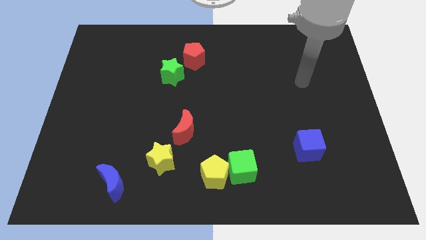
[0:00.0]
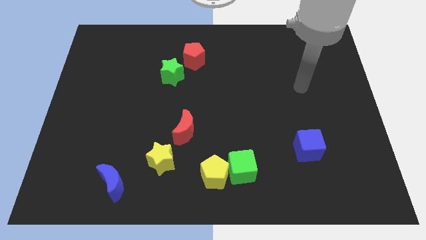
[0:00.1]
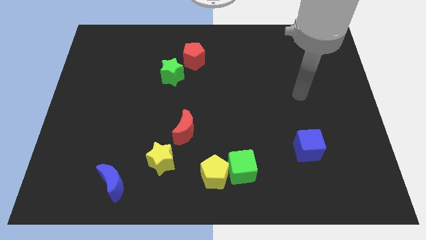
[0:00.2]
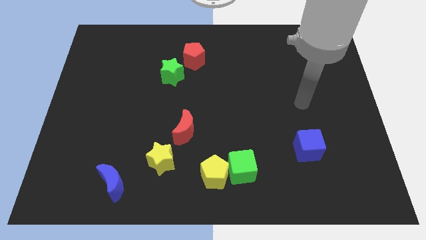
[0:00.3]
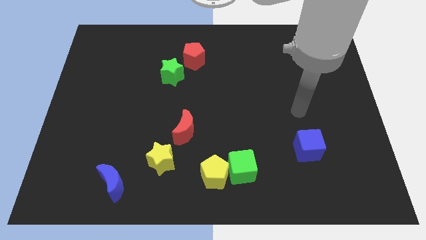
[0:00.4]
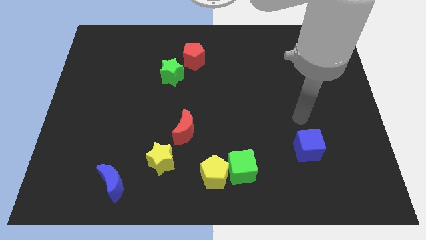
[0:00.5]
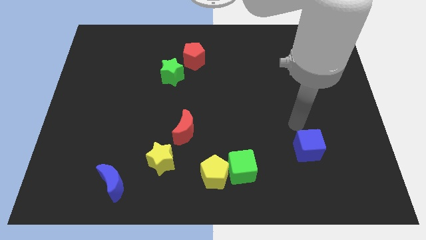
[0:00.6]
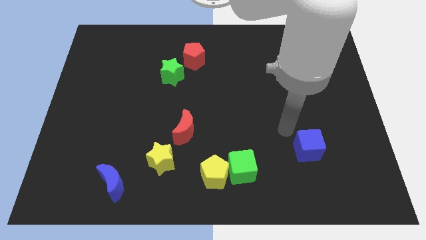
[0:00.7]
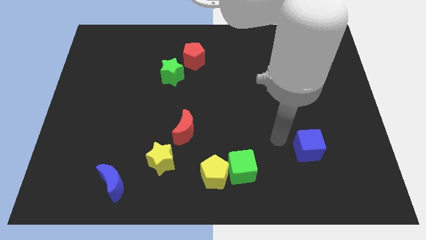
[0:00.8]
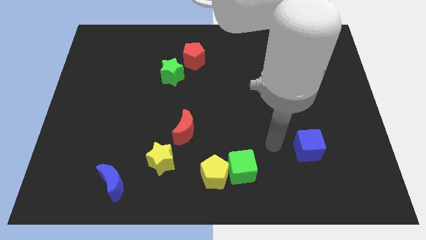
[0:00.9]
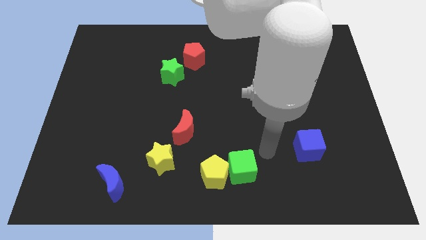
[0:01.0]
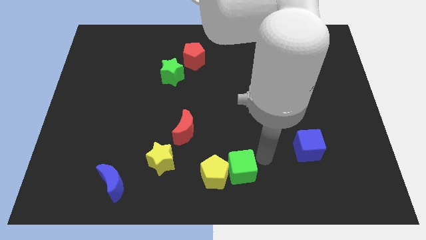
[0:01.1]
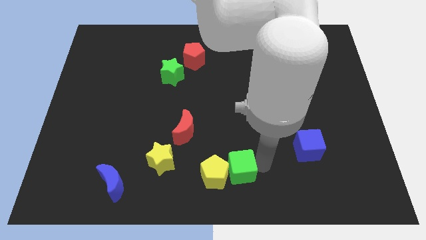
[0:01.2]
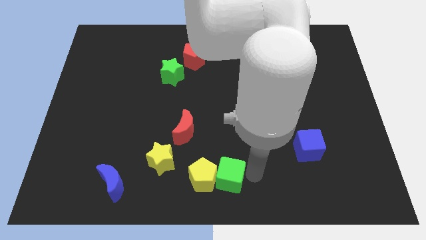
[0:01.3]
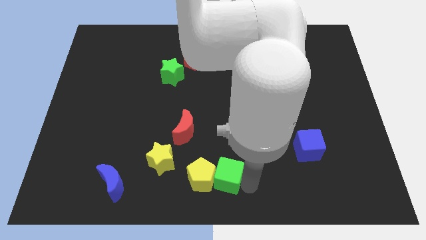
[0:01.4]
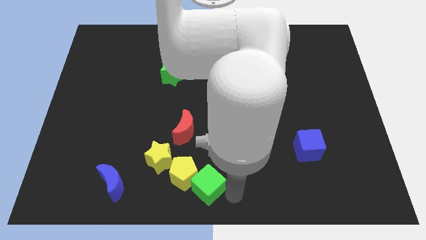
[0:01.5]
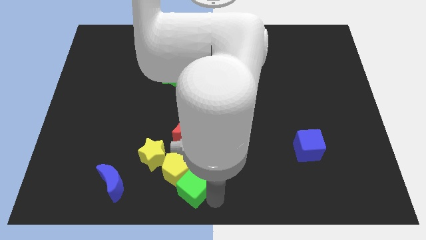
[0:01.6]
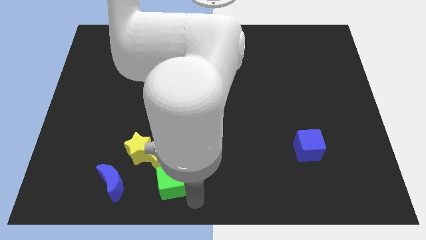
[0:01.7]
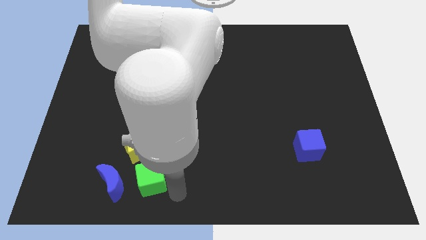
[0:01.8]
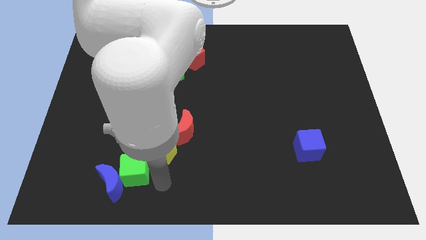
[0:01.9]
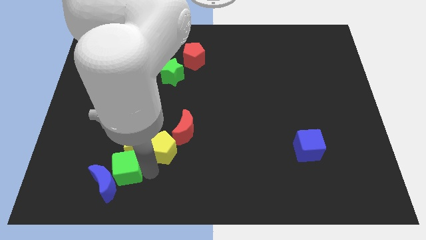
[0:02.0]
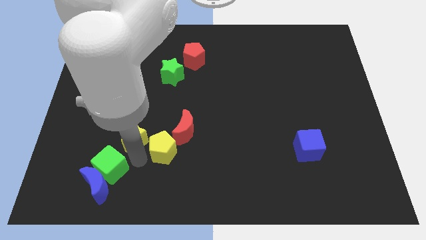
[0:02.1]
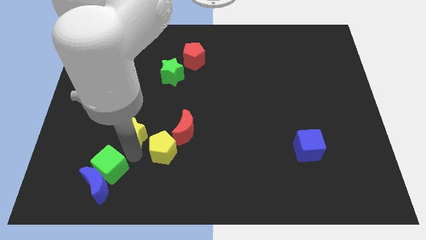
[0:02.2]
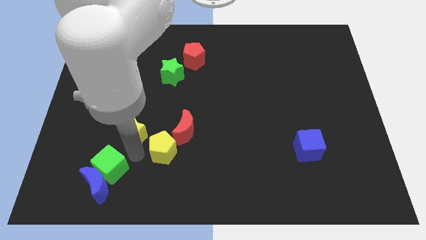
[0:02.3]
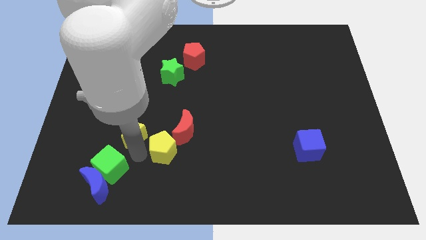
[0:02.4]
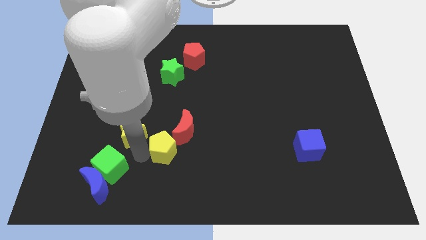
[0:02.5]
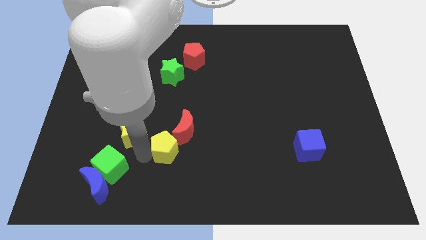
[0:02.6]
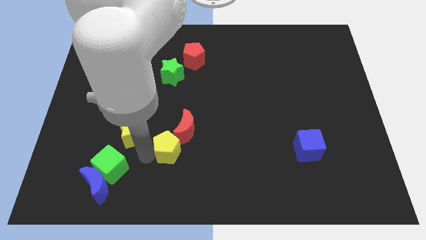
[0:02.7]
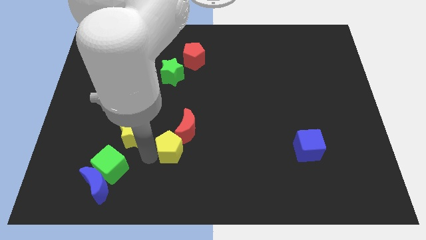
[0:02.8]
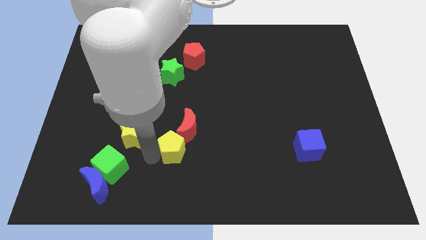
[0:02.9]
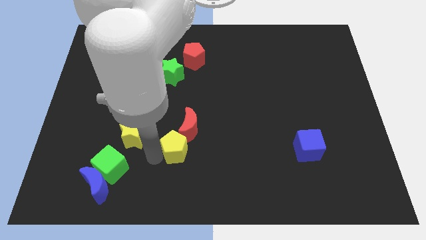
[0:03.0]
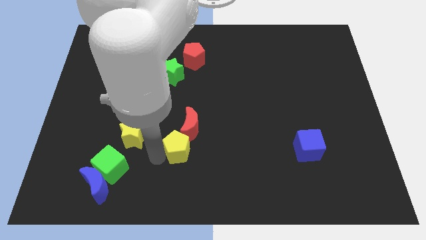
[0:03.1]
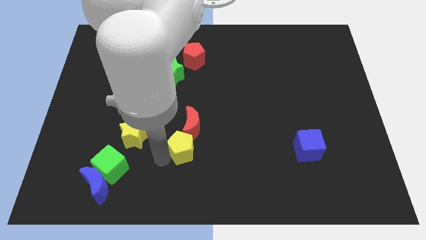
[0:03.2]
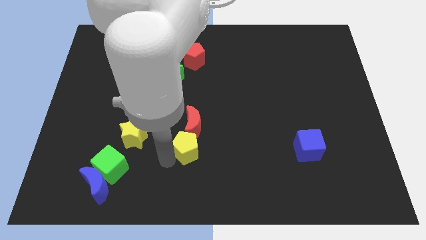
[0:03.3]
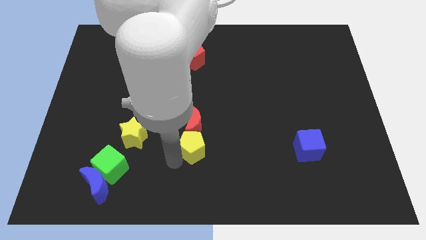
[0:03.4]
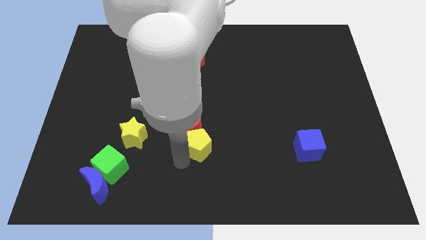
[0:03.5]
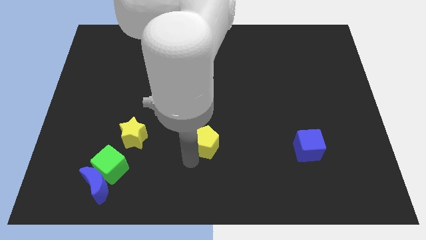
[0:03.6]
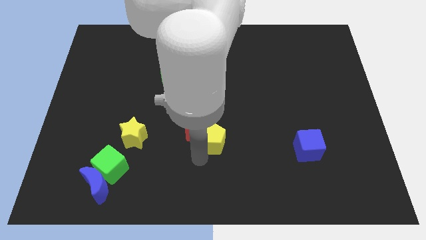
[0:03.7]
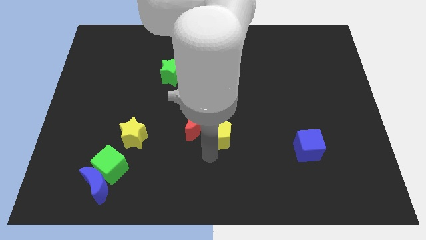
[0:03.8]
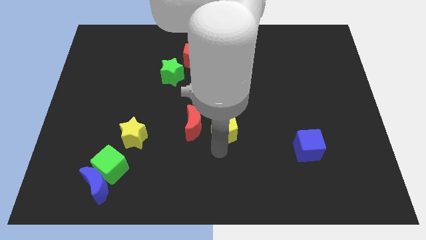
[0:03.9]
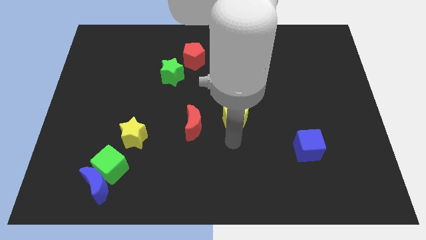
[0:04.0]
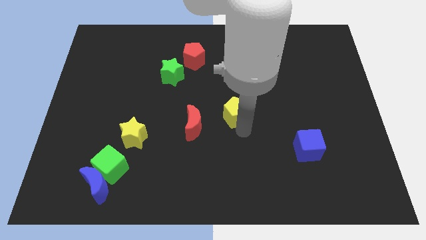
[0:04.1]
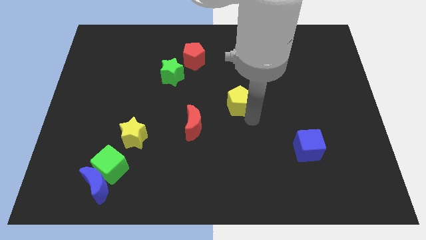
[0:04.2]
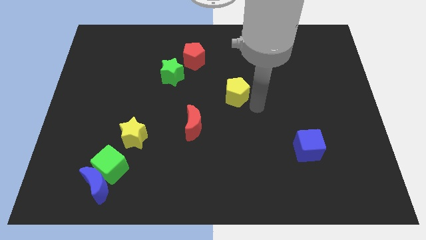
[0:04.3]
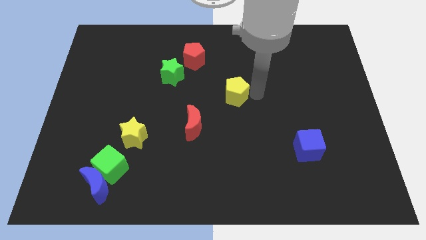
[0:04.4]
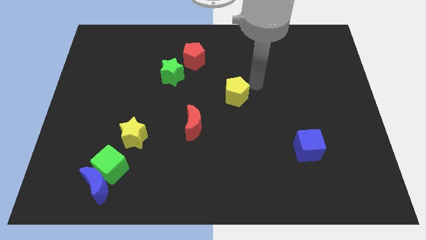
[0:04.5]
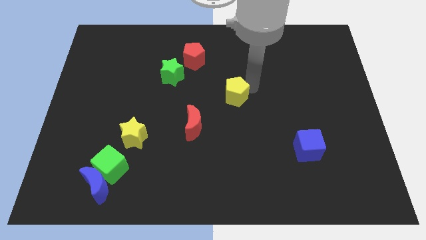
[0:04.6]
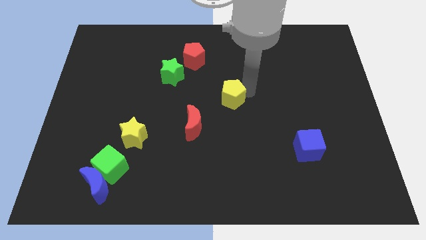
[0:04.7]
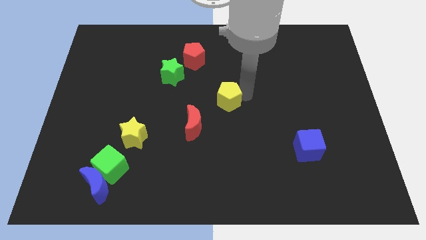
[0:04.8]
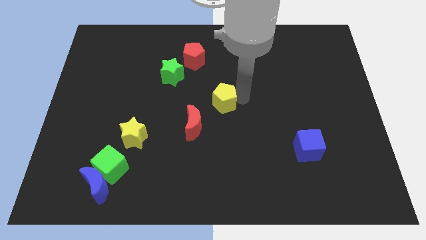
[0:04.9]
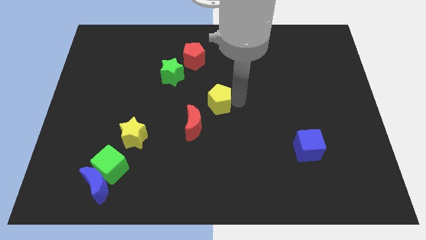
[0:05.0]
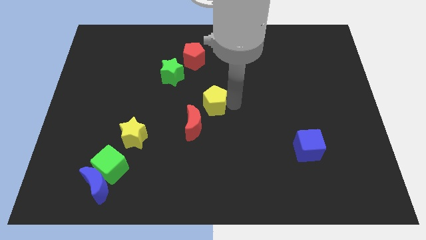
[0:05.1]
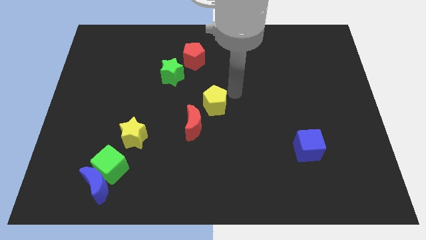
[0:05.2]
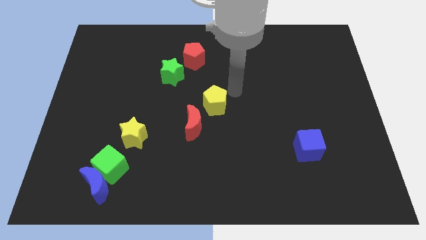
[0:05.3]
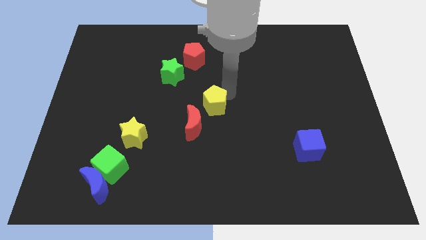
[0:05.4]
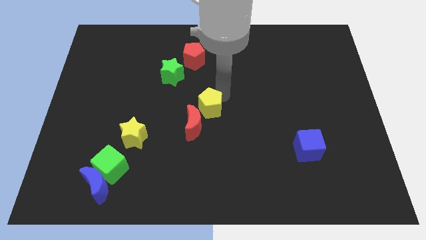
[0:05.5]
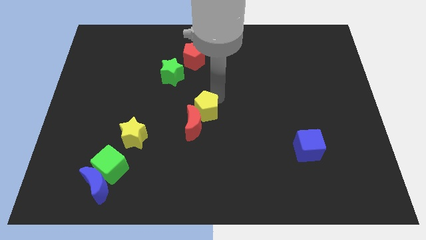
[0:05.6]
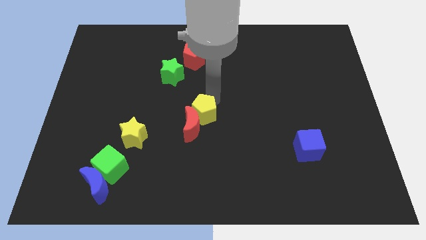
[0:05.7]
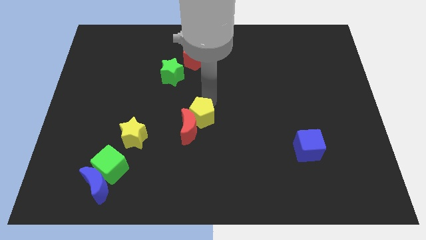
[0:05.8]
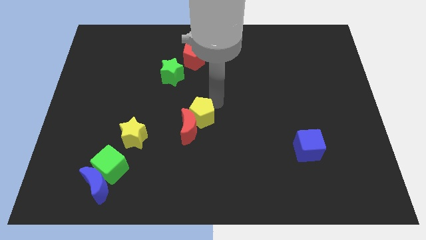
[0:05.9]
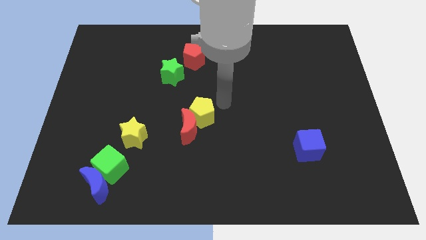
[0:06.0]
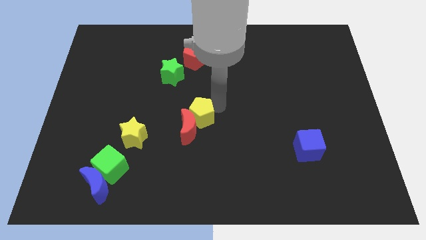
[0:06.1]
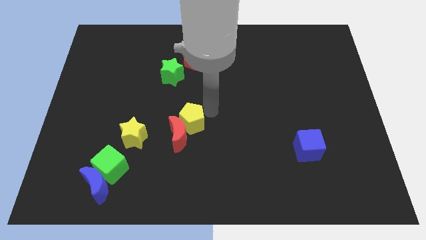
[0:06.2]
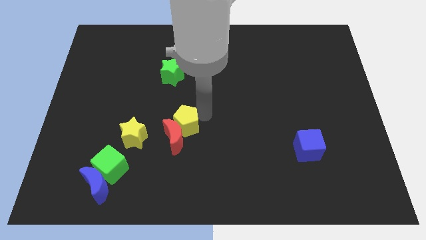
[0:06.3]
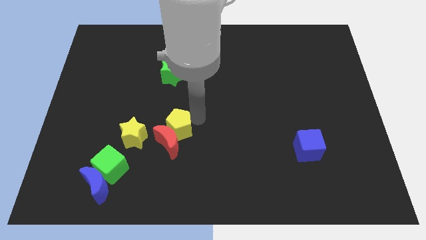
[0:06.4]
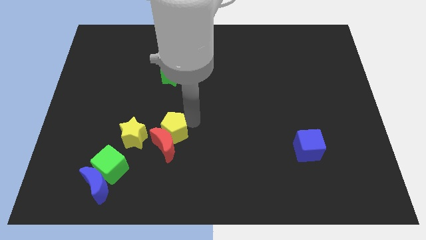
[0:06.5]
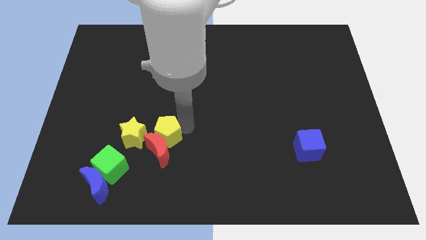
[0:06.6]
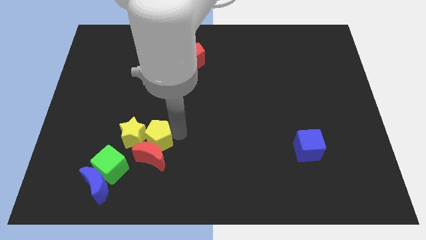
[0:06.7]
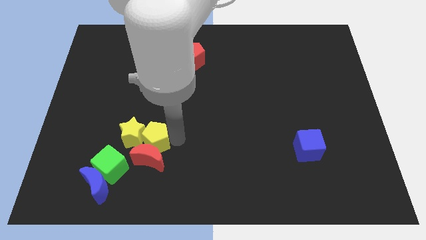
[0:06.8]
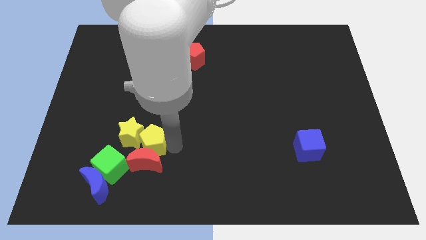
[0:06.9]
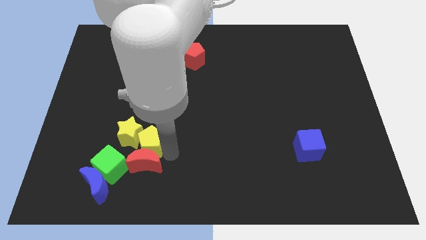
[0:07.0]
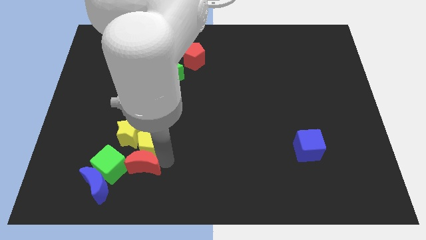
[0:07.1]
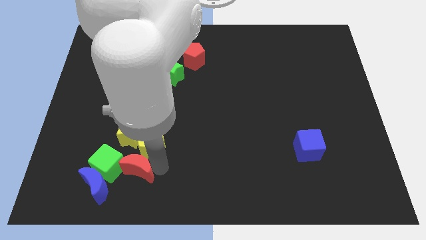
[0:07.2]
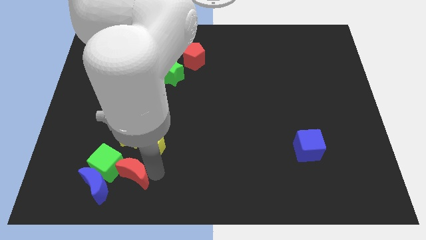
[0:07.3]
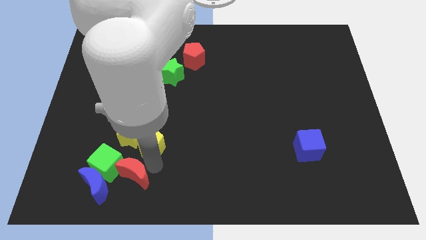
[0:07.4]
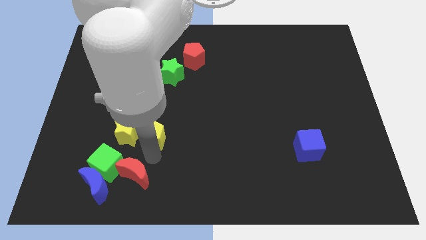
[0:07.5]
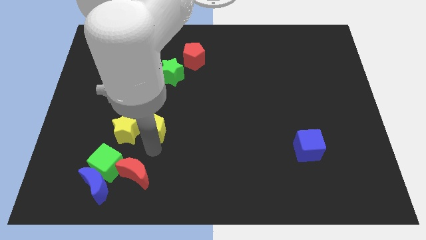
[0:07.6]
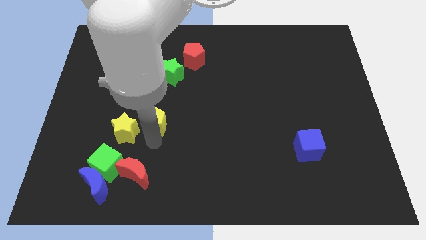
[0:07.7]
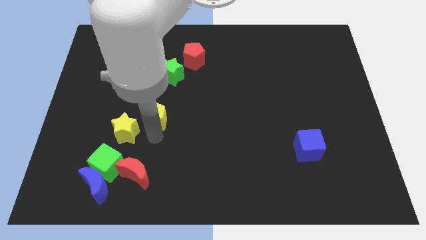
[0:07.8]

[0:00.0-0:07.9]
move the yellow pentagon diagonally upwards and to the left
